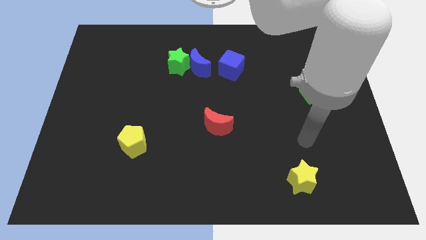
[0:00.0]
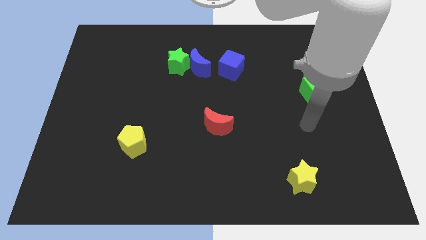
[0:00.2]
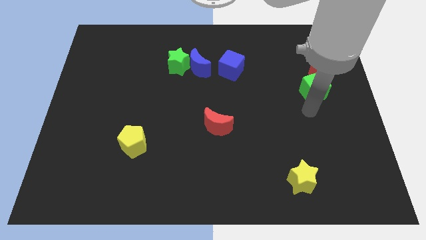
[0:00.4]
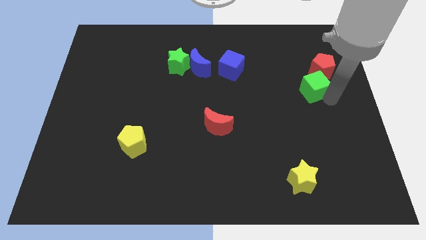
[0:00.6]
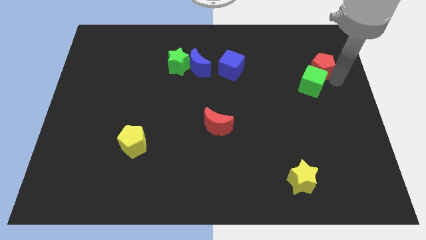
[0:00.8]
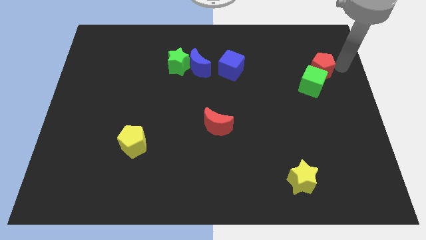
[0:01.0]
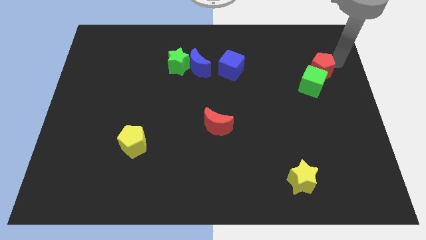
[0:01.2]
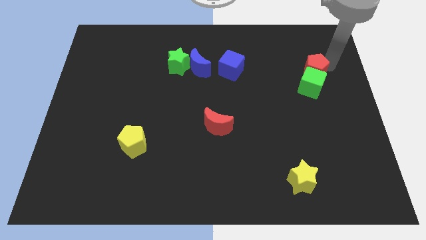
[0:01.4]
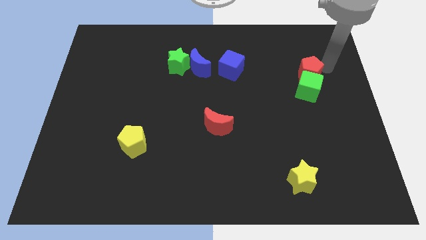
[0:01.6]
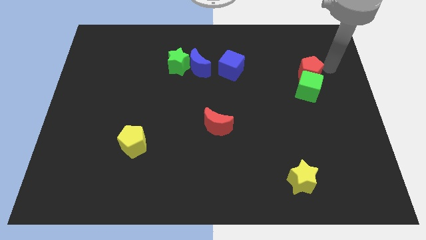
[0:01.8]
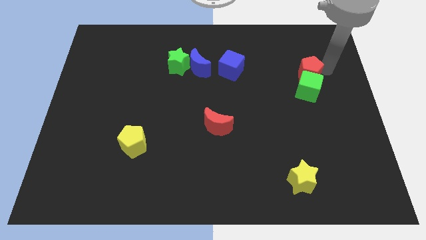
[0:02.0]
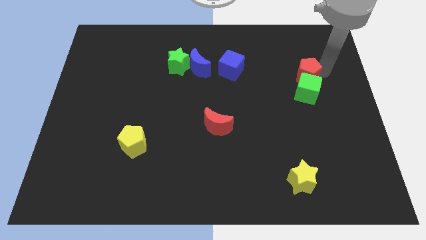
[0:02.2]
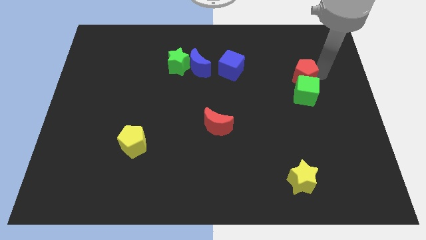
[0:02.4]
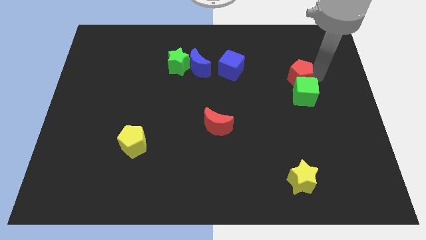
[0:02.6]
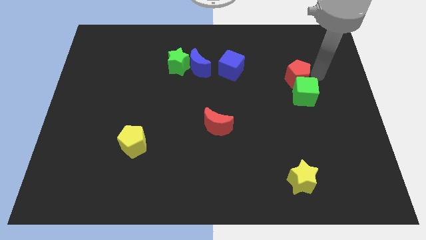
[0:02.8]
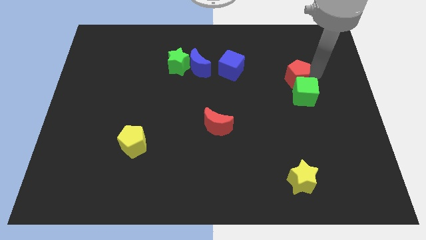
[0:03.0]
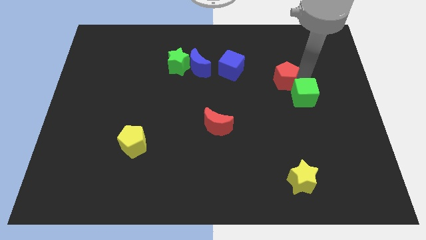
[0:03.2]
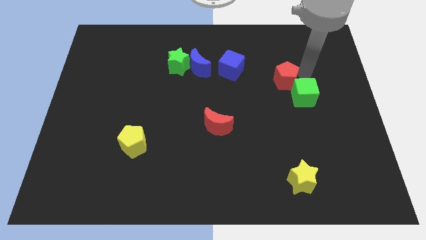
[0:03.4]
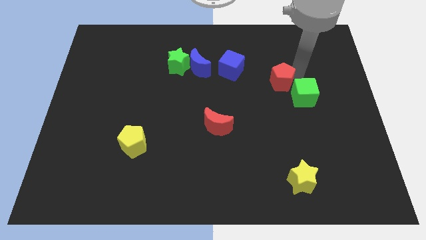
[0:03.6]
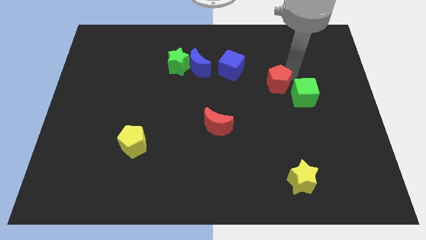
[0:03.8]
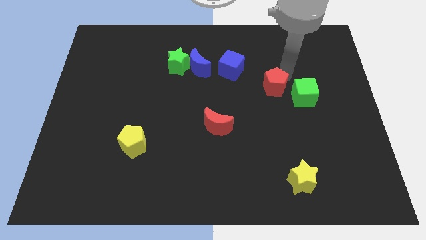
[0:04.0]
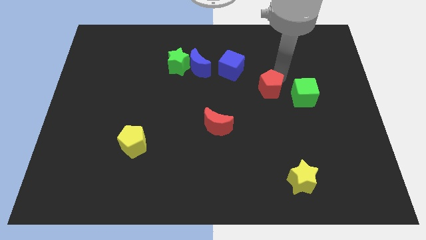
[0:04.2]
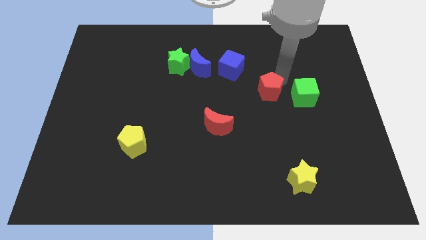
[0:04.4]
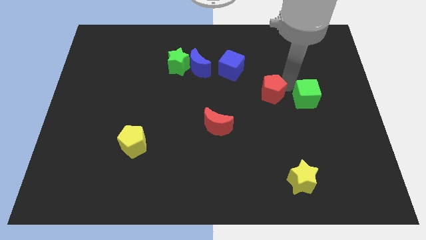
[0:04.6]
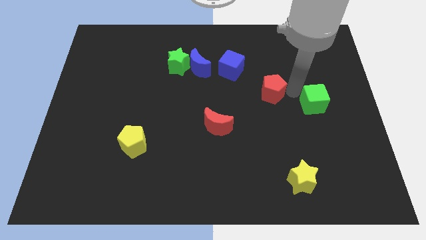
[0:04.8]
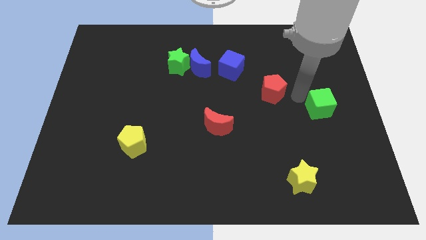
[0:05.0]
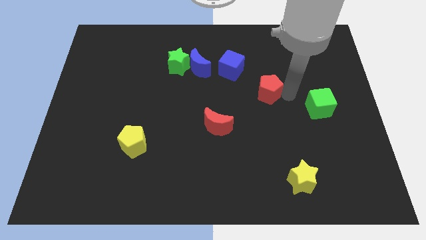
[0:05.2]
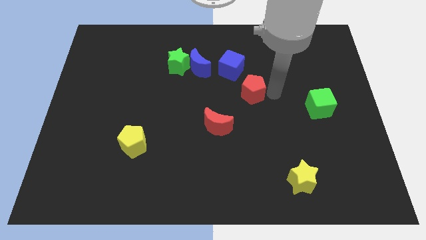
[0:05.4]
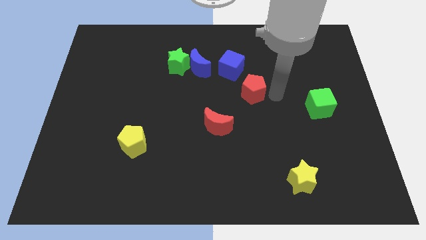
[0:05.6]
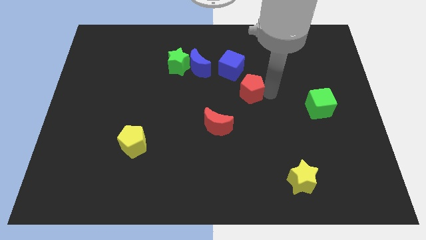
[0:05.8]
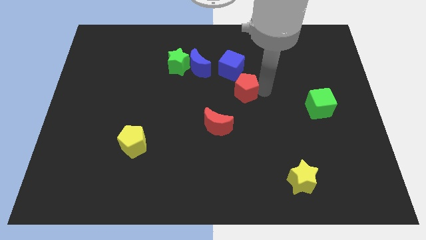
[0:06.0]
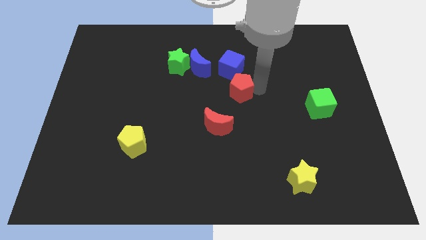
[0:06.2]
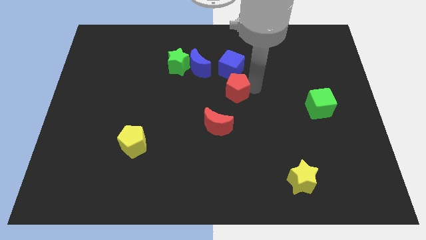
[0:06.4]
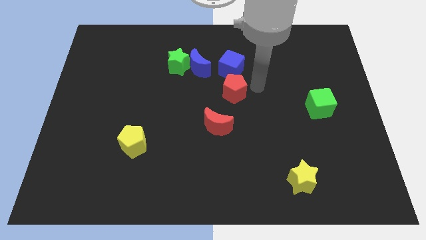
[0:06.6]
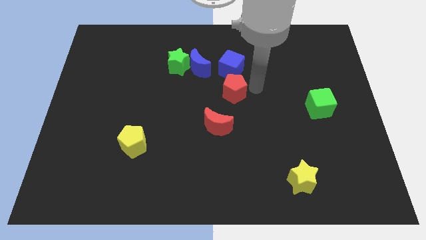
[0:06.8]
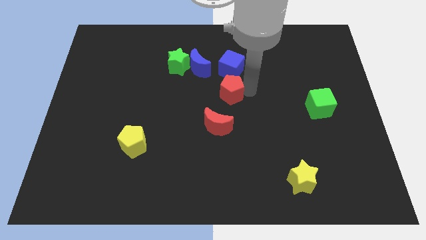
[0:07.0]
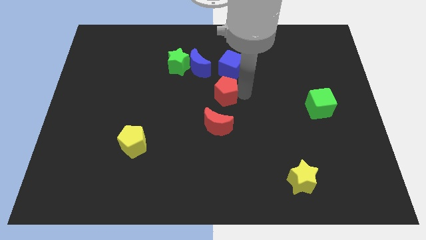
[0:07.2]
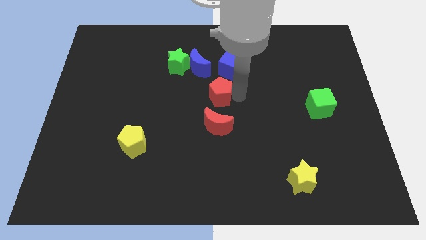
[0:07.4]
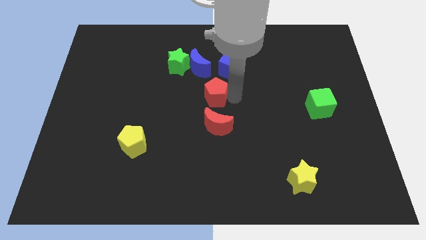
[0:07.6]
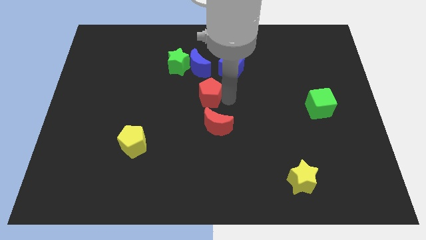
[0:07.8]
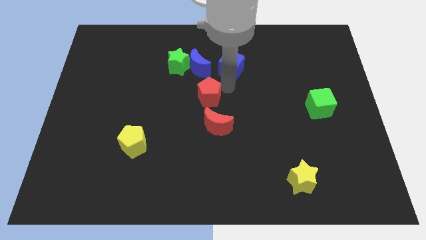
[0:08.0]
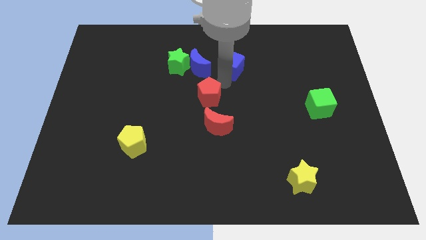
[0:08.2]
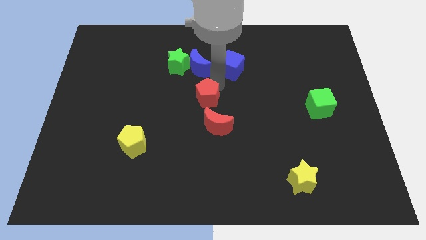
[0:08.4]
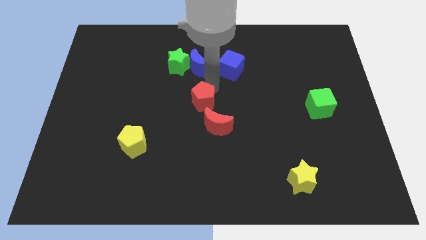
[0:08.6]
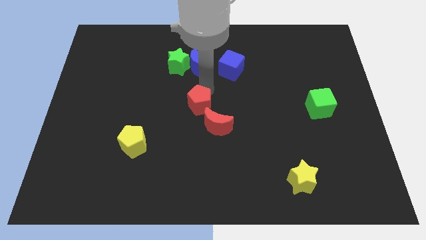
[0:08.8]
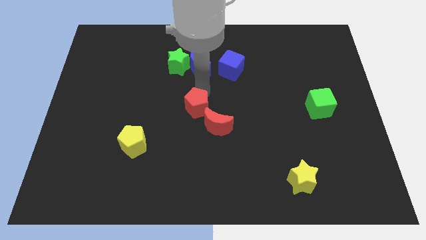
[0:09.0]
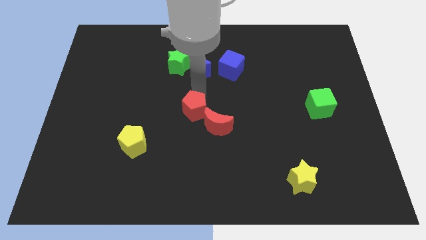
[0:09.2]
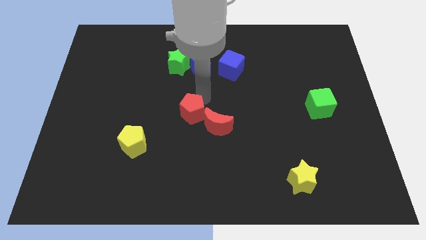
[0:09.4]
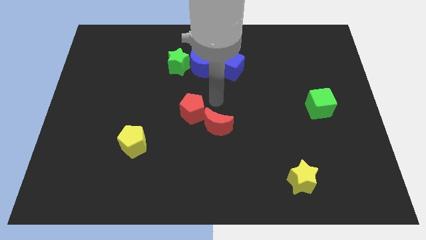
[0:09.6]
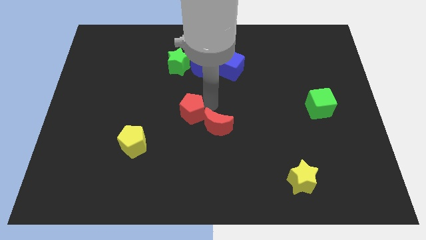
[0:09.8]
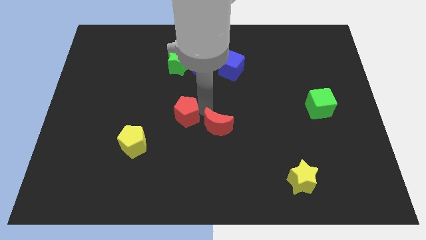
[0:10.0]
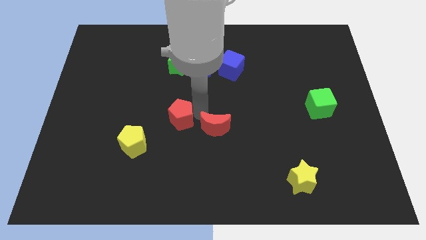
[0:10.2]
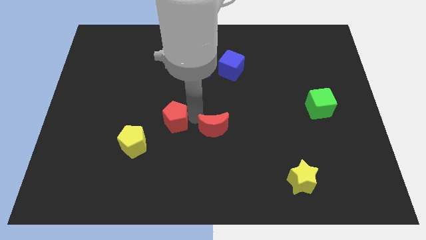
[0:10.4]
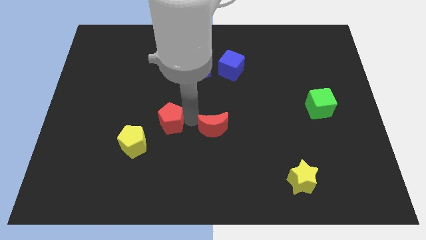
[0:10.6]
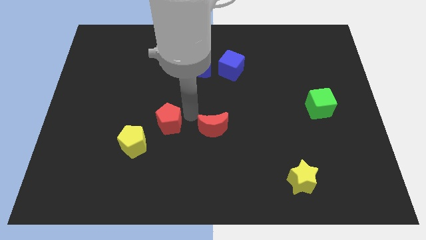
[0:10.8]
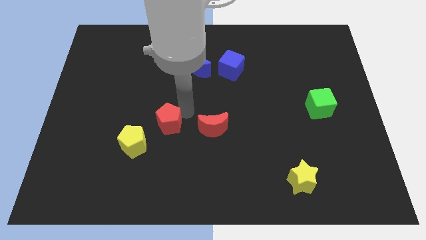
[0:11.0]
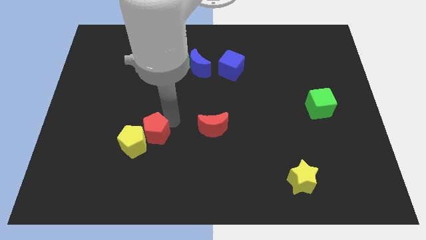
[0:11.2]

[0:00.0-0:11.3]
move the red pentagon to the yellow pentagon

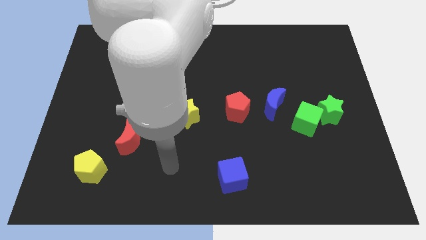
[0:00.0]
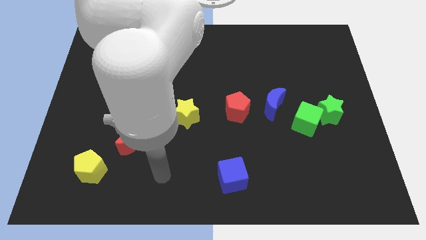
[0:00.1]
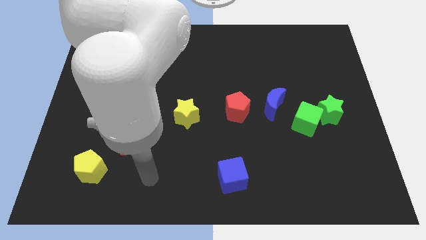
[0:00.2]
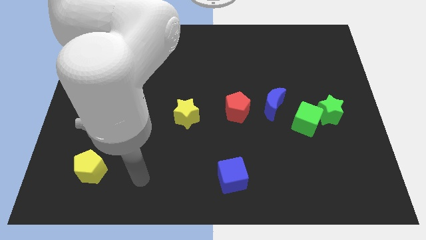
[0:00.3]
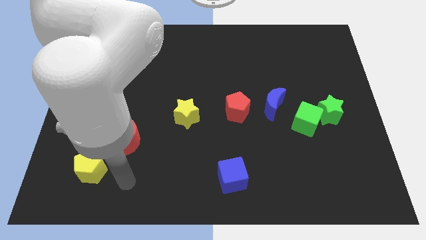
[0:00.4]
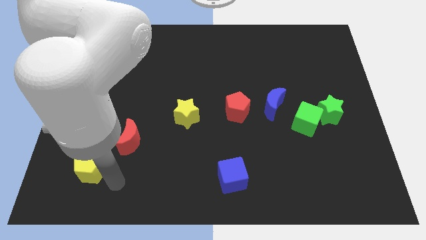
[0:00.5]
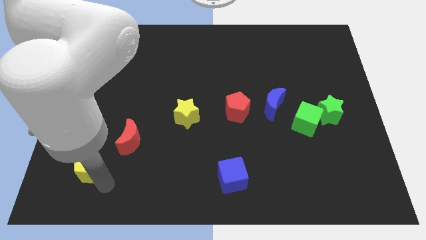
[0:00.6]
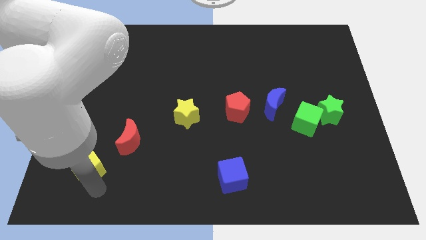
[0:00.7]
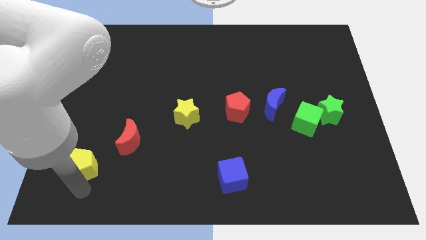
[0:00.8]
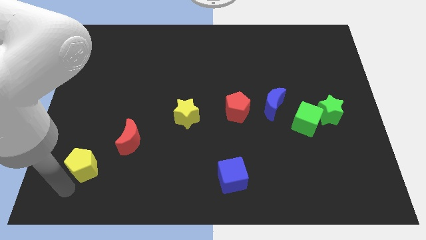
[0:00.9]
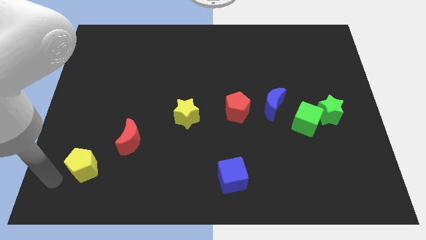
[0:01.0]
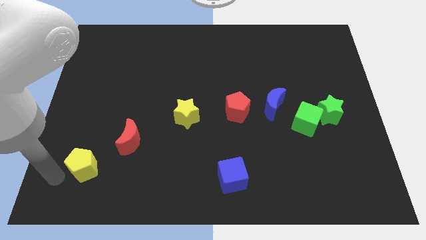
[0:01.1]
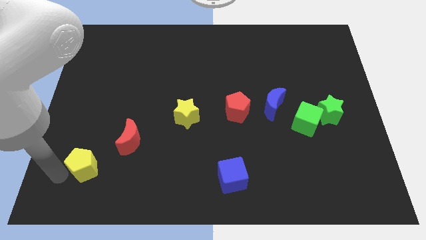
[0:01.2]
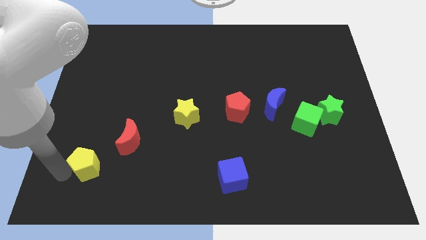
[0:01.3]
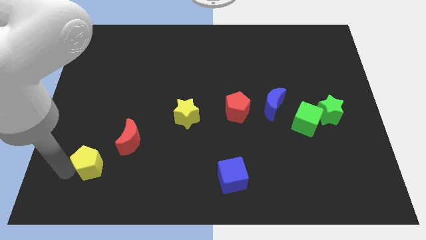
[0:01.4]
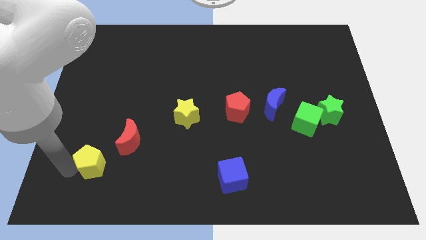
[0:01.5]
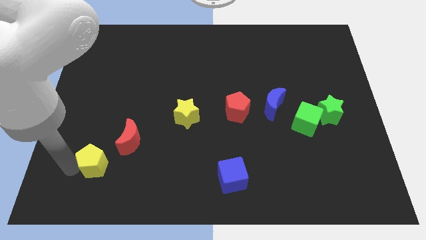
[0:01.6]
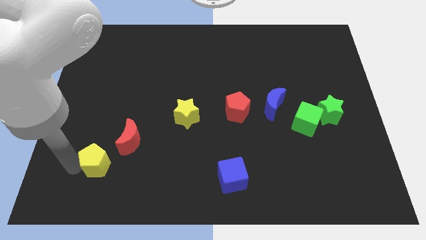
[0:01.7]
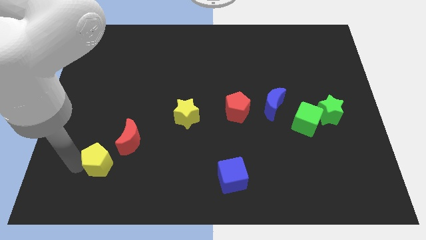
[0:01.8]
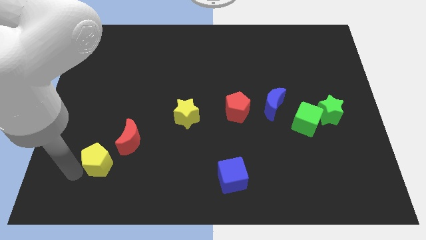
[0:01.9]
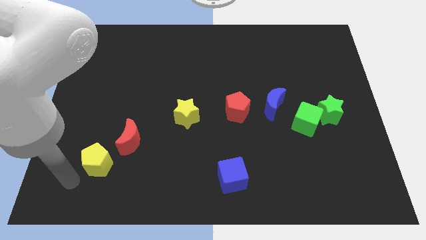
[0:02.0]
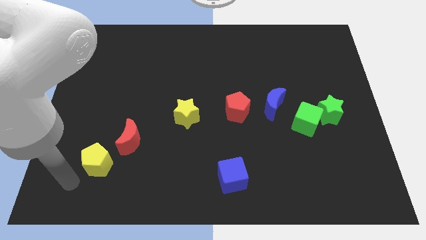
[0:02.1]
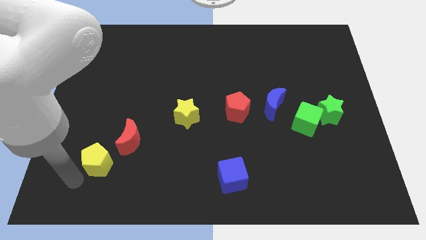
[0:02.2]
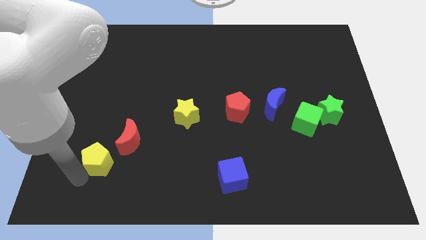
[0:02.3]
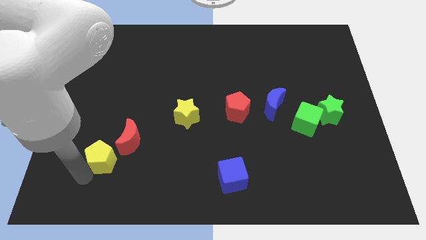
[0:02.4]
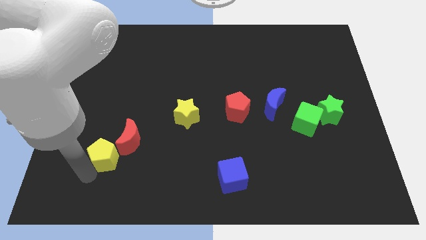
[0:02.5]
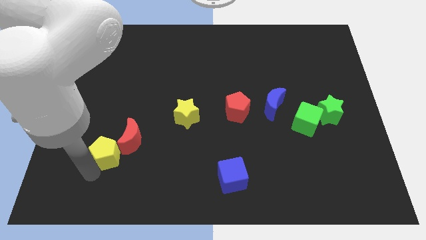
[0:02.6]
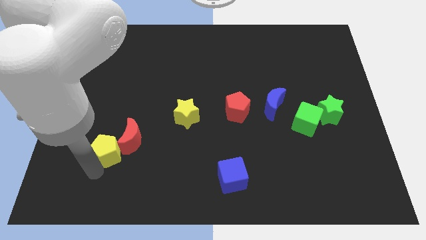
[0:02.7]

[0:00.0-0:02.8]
slide the yellow pentagon close to the red moon
